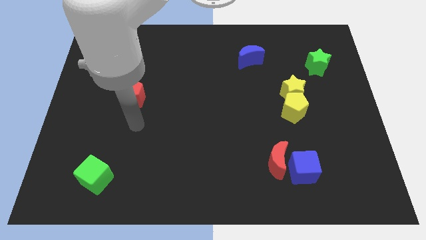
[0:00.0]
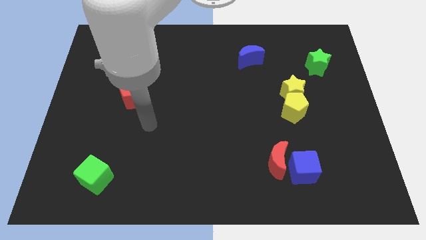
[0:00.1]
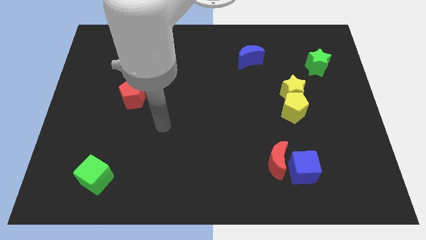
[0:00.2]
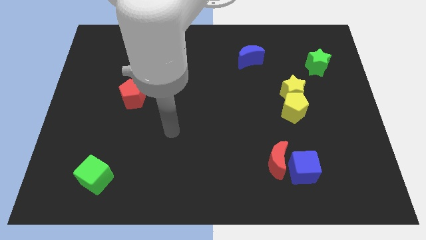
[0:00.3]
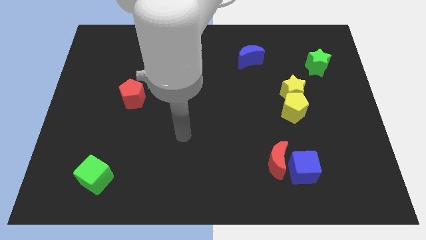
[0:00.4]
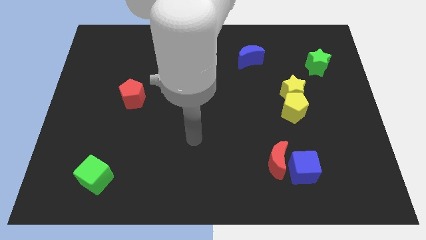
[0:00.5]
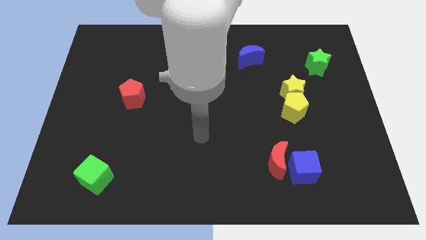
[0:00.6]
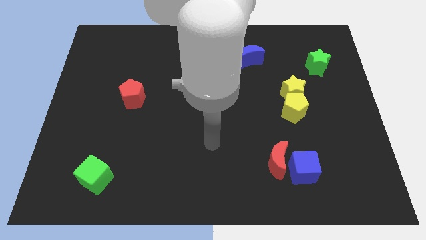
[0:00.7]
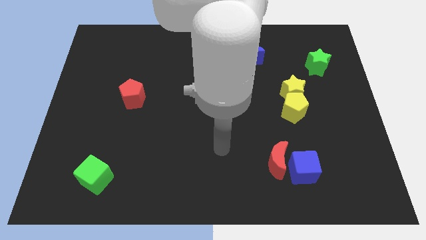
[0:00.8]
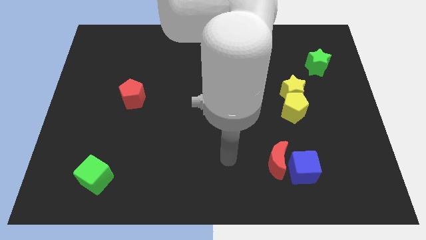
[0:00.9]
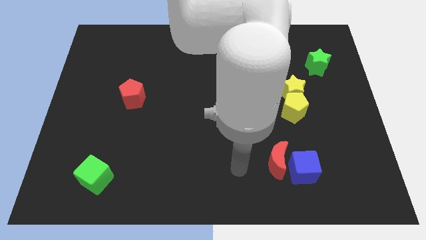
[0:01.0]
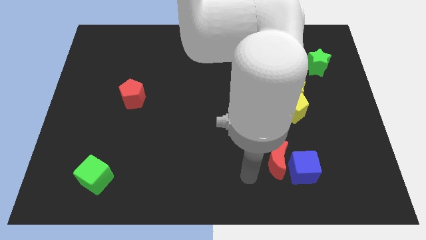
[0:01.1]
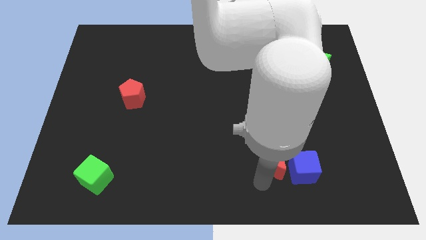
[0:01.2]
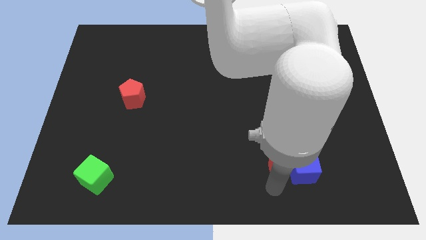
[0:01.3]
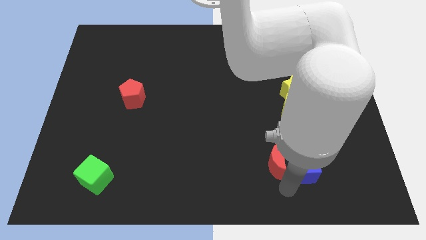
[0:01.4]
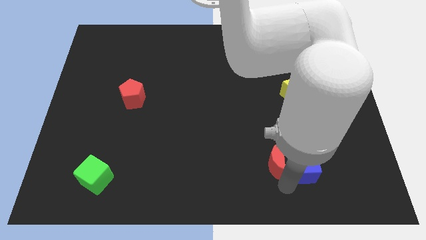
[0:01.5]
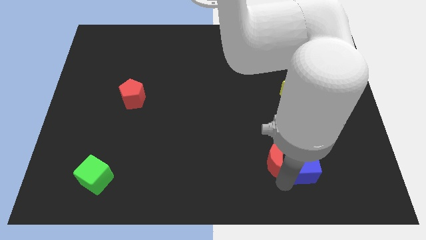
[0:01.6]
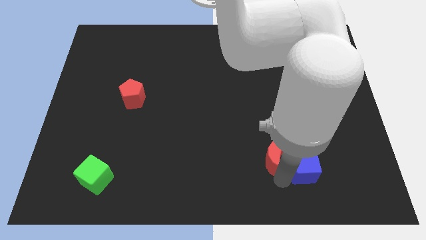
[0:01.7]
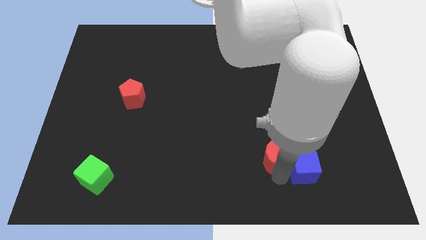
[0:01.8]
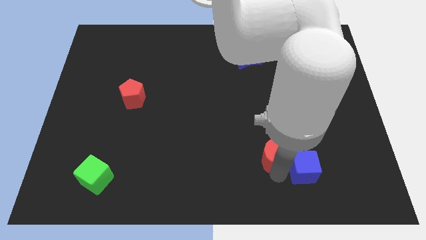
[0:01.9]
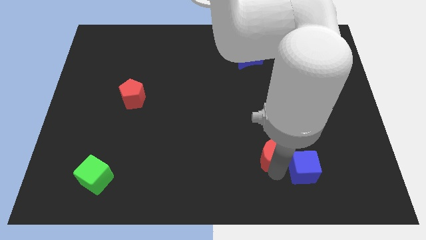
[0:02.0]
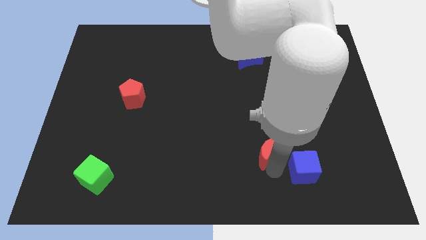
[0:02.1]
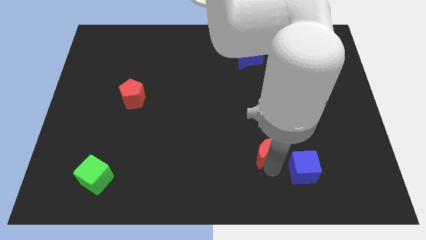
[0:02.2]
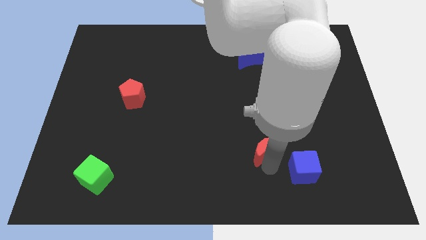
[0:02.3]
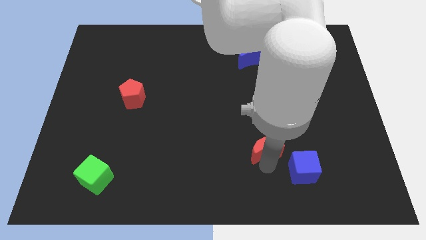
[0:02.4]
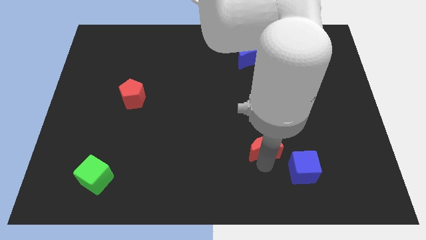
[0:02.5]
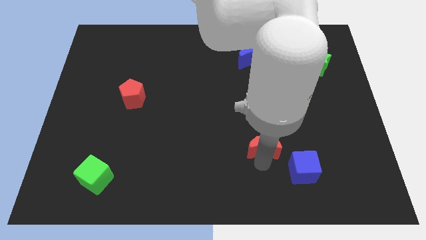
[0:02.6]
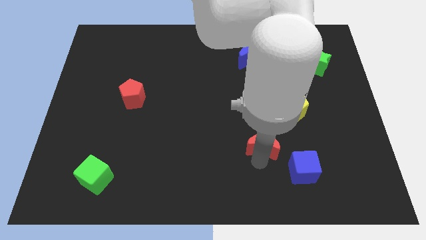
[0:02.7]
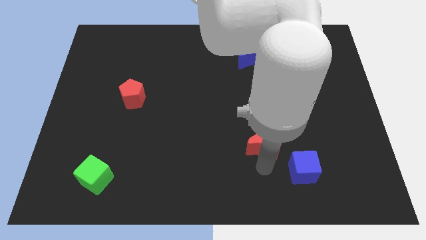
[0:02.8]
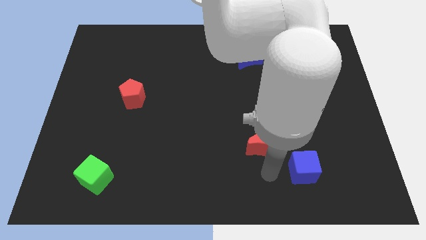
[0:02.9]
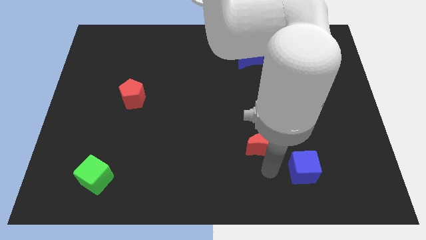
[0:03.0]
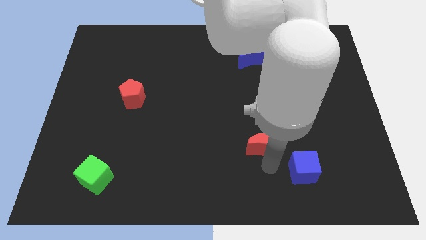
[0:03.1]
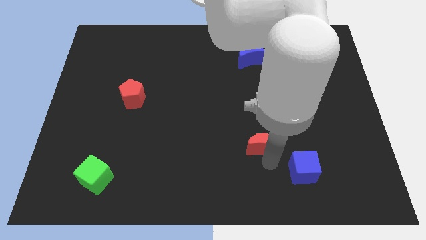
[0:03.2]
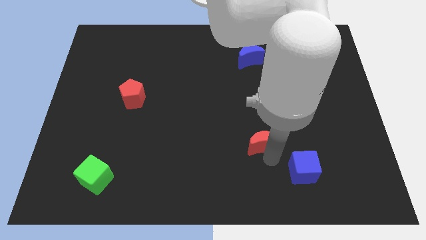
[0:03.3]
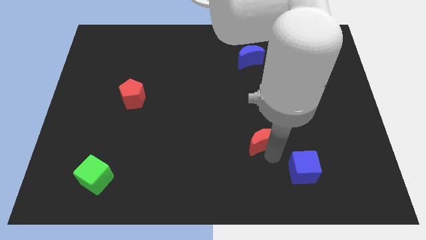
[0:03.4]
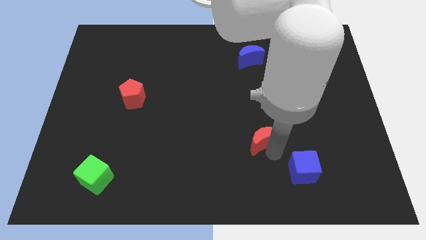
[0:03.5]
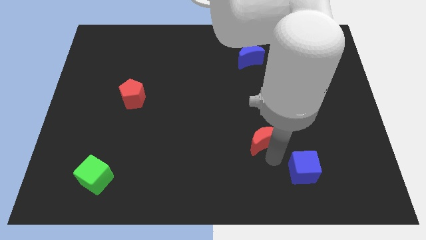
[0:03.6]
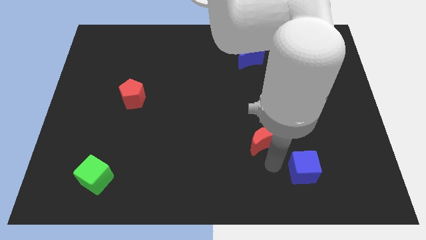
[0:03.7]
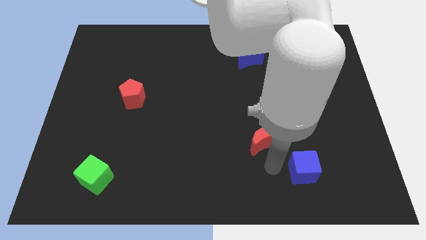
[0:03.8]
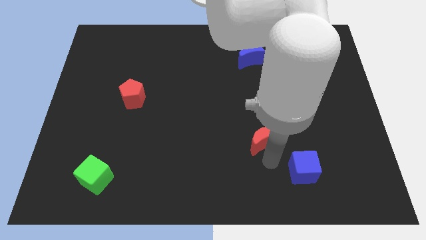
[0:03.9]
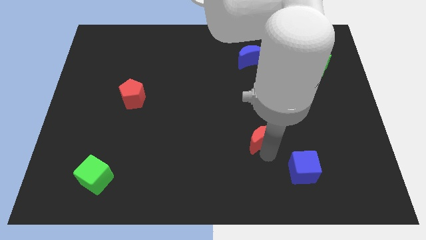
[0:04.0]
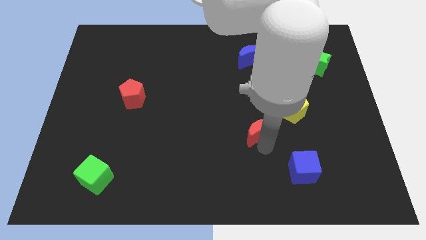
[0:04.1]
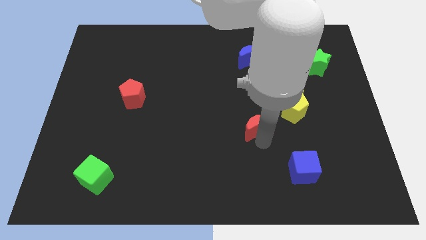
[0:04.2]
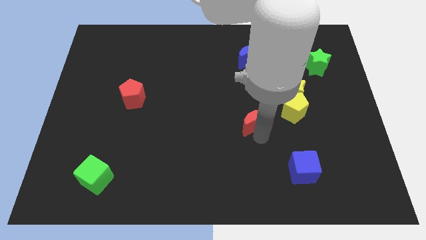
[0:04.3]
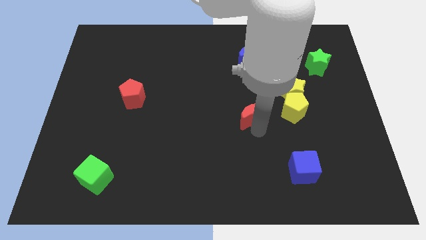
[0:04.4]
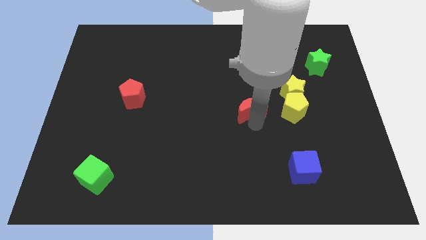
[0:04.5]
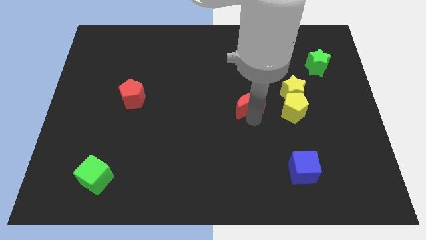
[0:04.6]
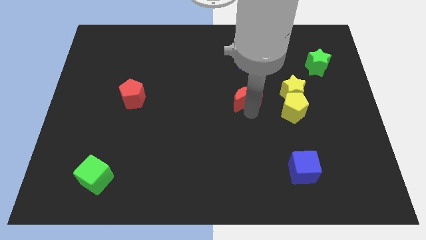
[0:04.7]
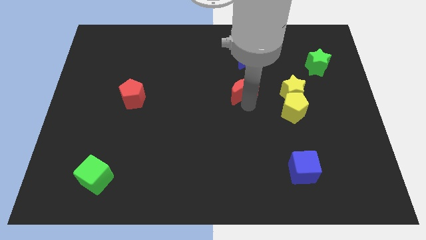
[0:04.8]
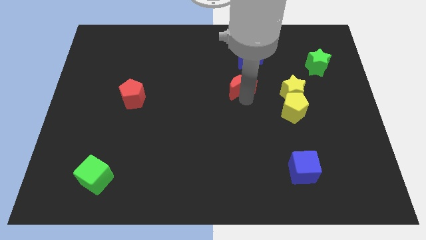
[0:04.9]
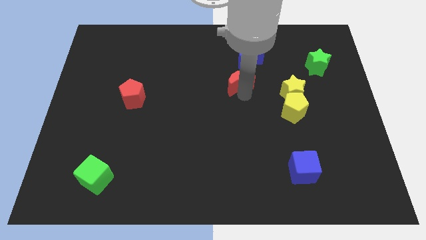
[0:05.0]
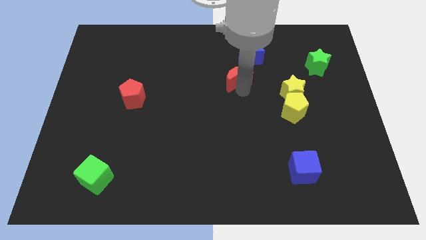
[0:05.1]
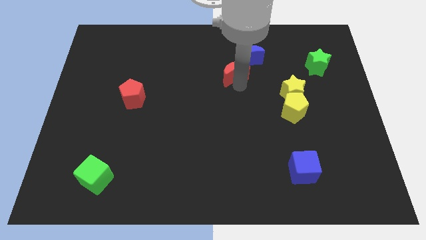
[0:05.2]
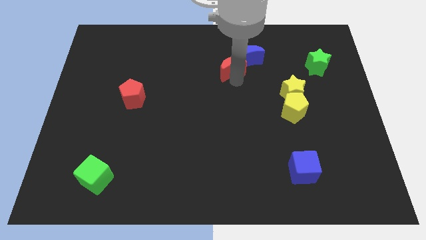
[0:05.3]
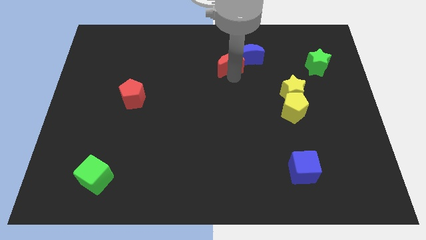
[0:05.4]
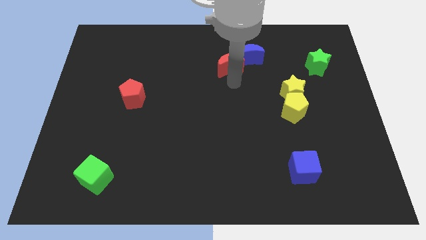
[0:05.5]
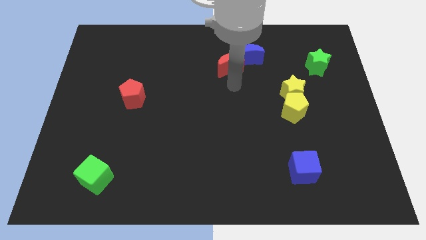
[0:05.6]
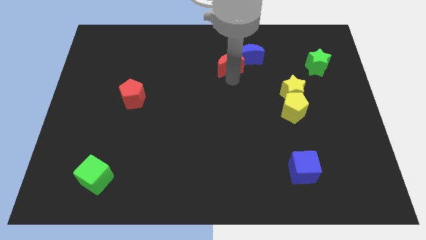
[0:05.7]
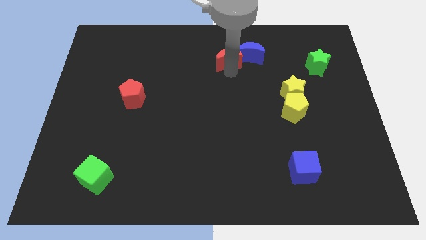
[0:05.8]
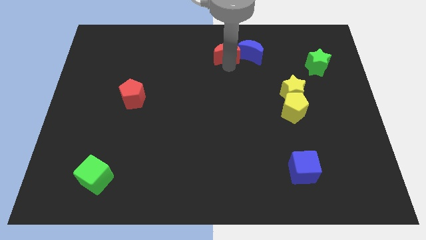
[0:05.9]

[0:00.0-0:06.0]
push the red moon to the top

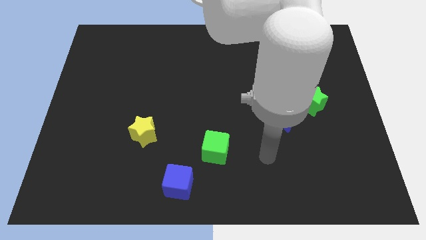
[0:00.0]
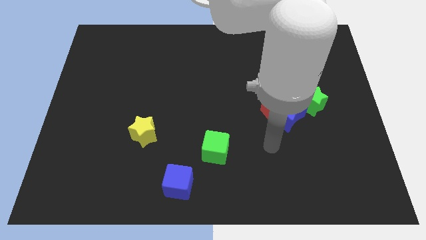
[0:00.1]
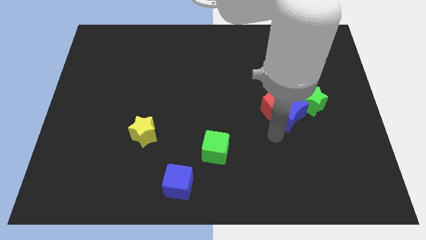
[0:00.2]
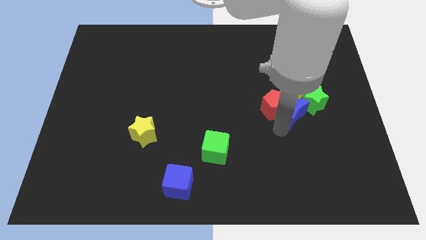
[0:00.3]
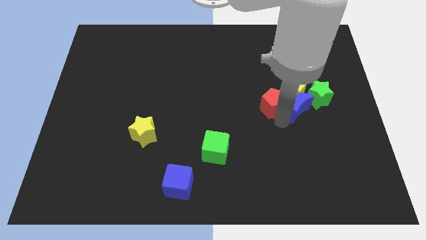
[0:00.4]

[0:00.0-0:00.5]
move the green star to the right side of the board
